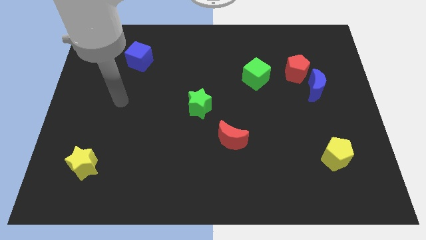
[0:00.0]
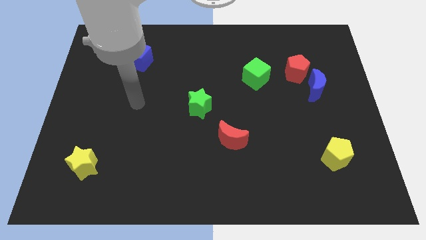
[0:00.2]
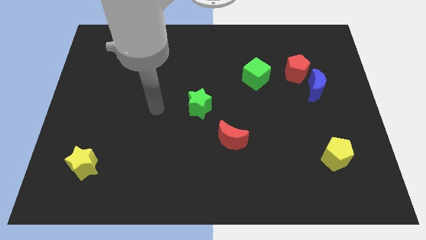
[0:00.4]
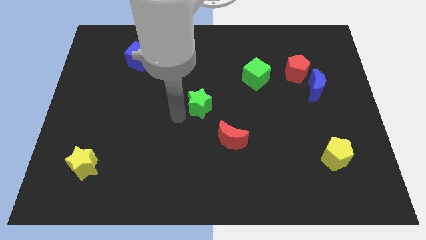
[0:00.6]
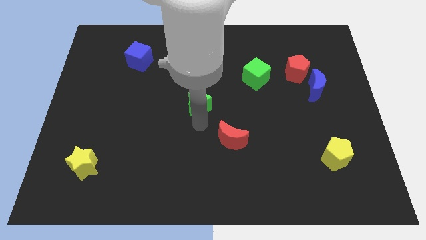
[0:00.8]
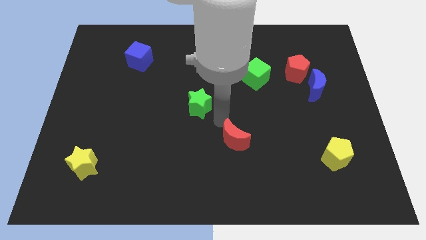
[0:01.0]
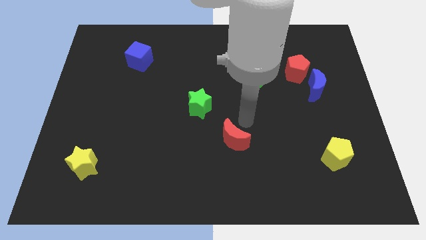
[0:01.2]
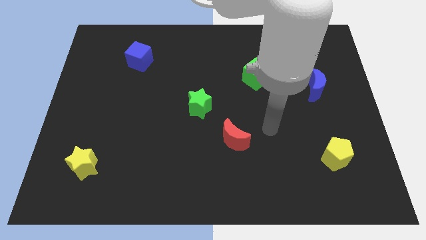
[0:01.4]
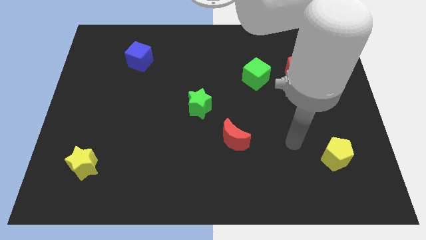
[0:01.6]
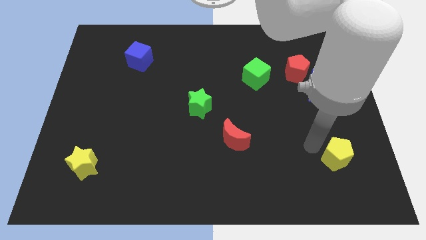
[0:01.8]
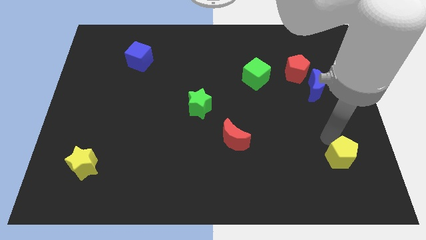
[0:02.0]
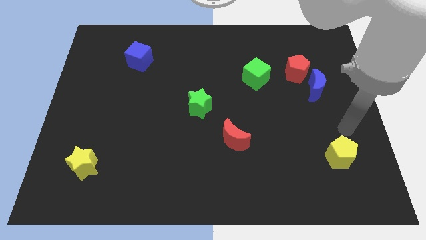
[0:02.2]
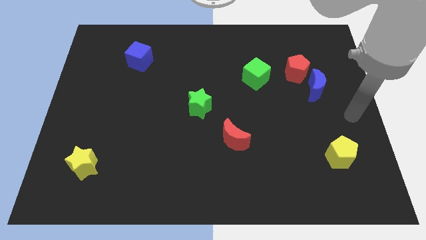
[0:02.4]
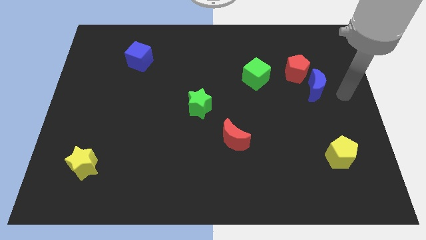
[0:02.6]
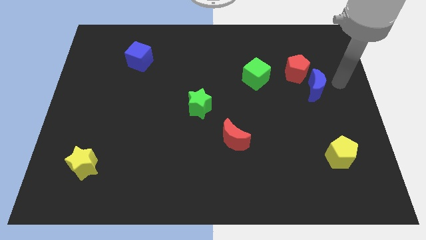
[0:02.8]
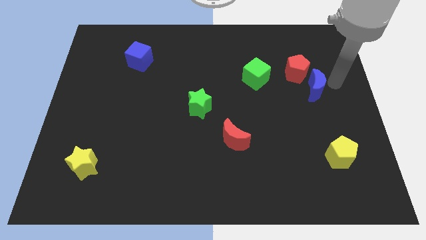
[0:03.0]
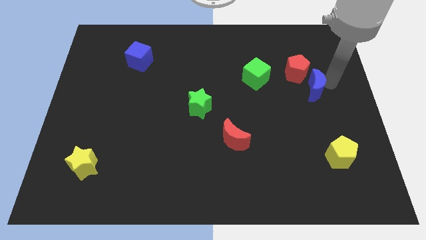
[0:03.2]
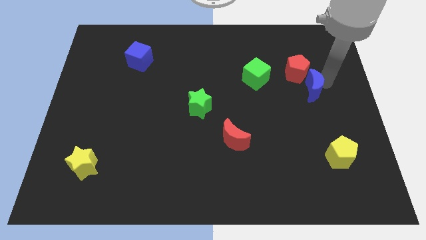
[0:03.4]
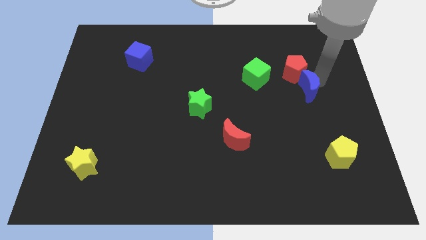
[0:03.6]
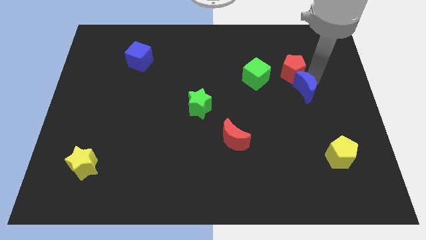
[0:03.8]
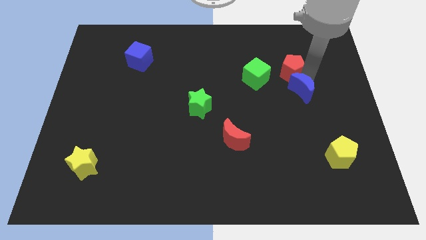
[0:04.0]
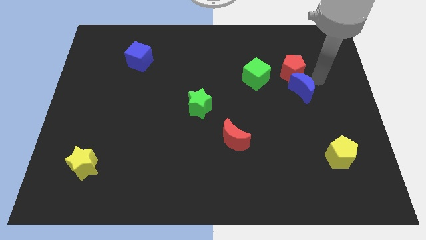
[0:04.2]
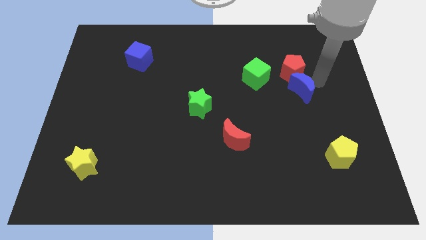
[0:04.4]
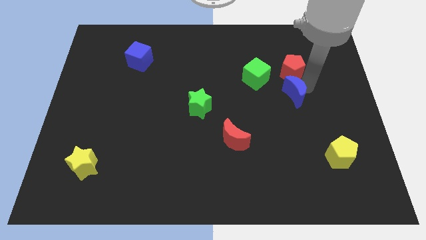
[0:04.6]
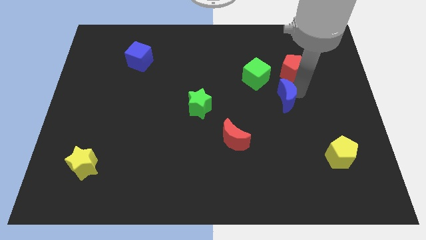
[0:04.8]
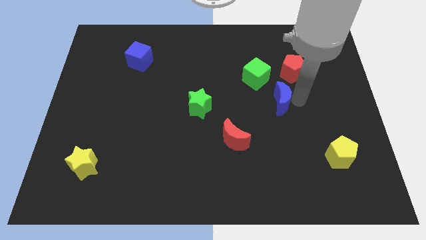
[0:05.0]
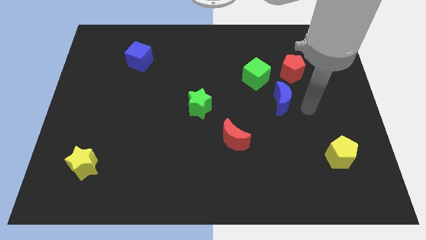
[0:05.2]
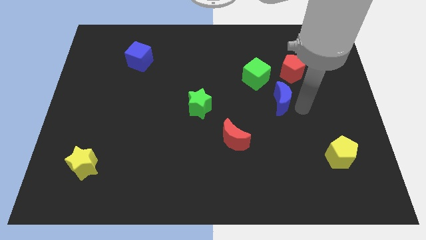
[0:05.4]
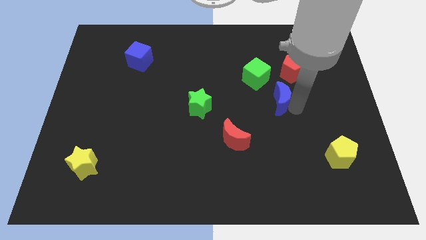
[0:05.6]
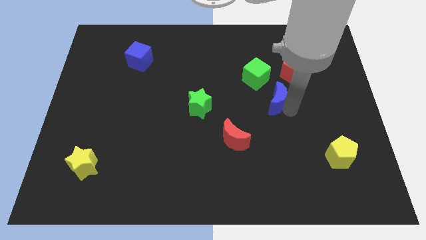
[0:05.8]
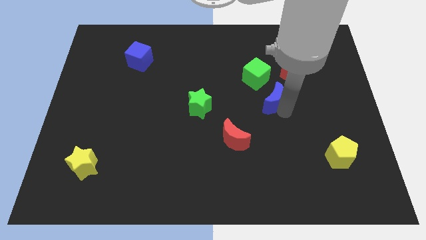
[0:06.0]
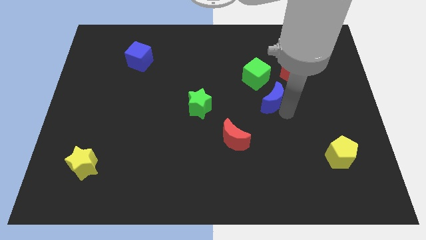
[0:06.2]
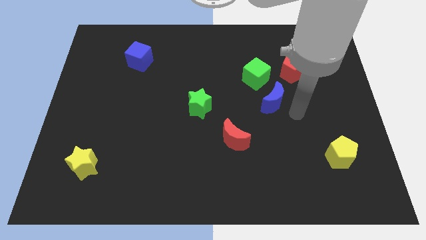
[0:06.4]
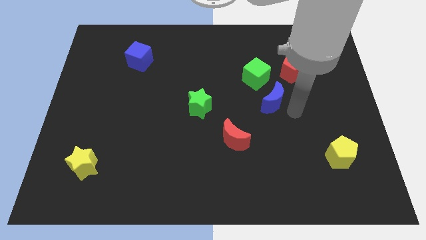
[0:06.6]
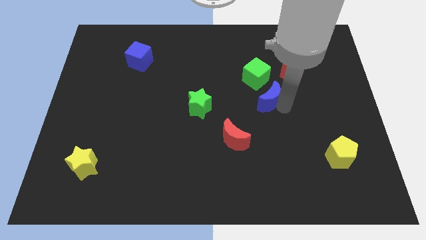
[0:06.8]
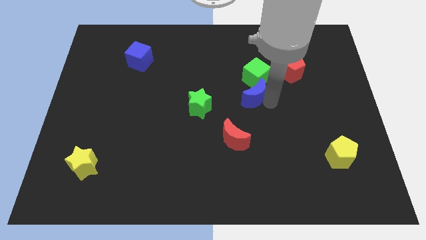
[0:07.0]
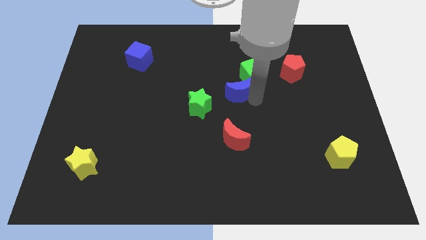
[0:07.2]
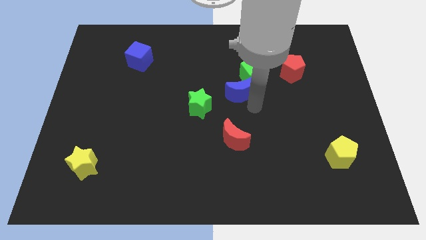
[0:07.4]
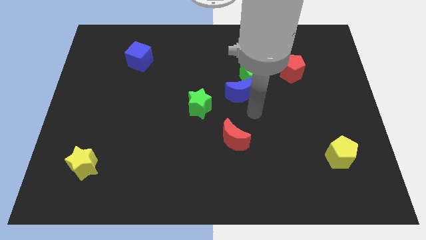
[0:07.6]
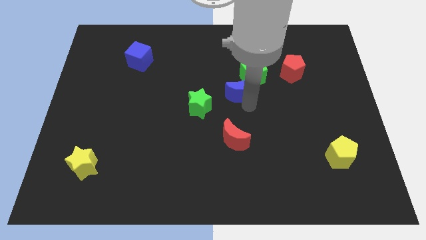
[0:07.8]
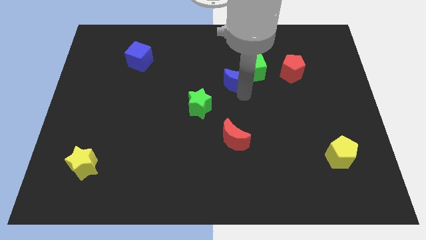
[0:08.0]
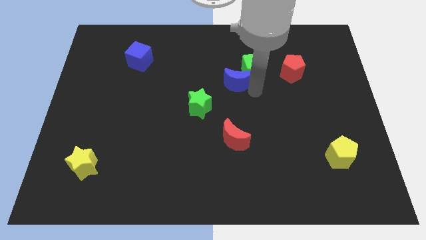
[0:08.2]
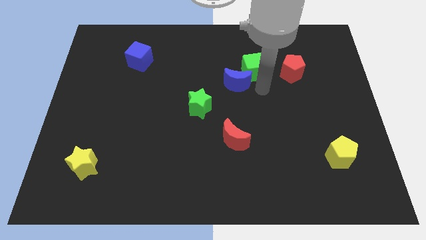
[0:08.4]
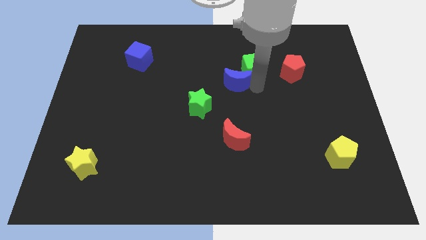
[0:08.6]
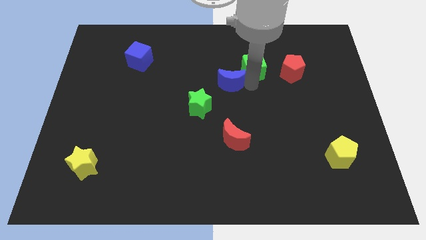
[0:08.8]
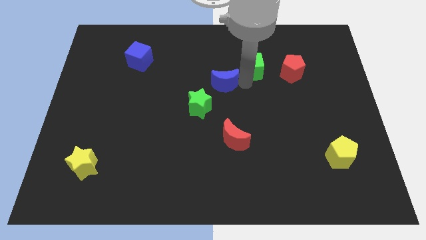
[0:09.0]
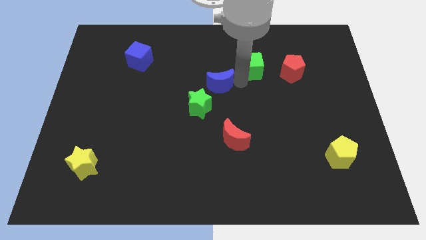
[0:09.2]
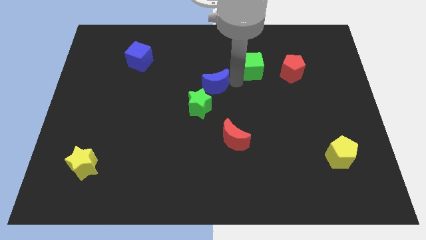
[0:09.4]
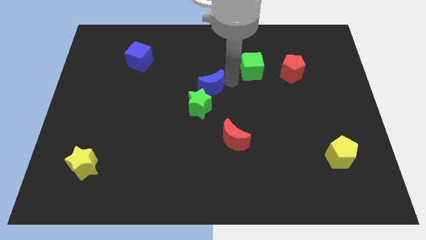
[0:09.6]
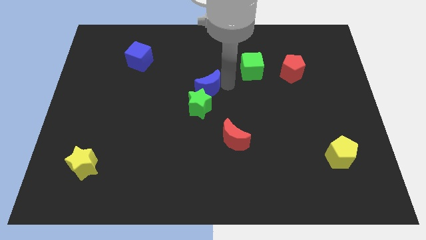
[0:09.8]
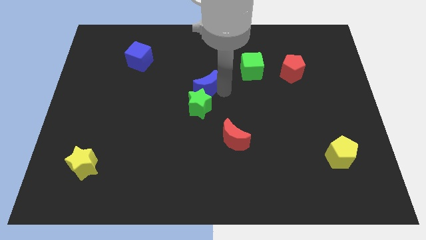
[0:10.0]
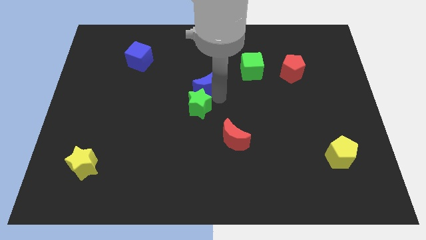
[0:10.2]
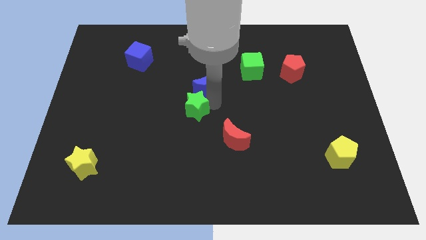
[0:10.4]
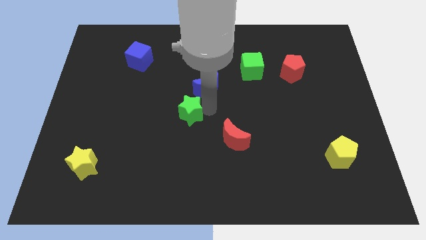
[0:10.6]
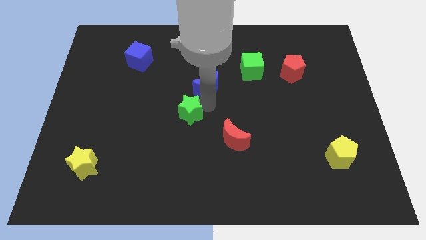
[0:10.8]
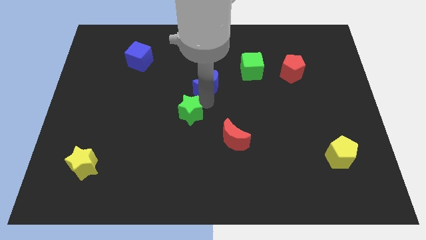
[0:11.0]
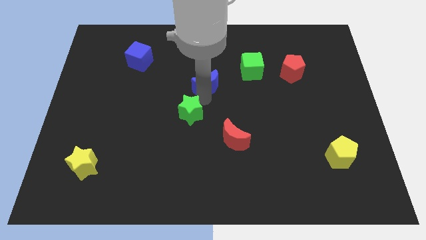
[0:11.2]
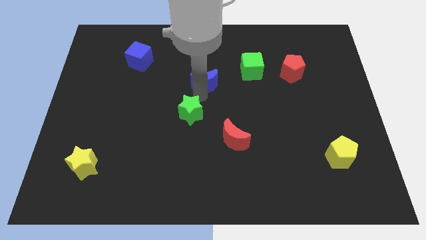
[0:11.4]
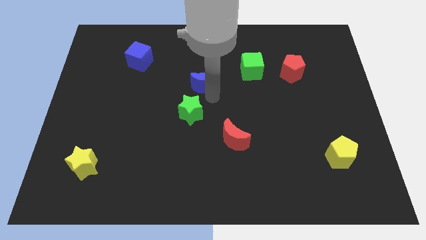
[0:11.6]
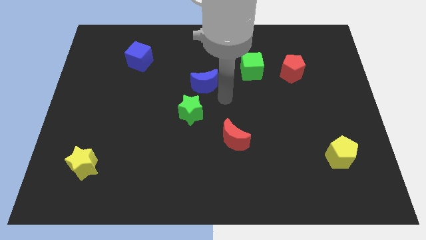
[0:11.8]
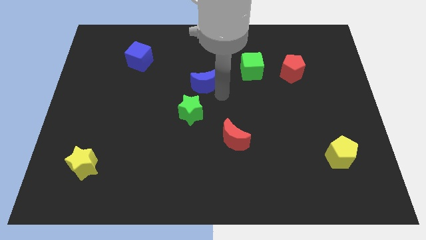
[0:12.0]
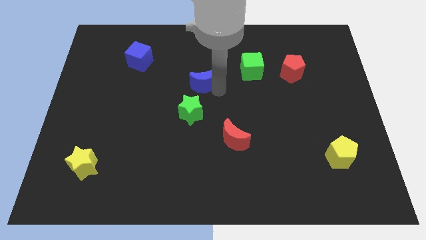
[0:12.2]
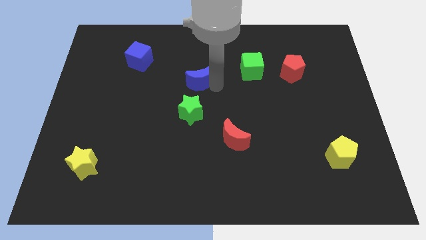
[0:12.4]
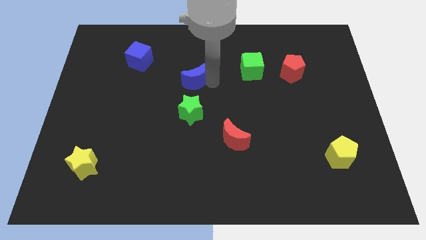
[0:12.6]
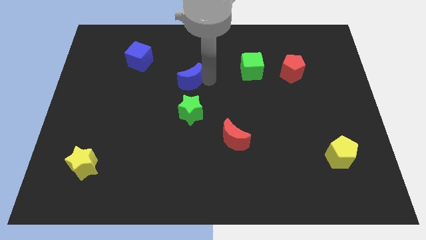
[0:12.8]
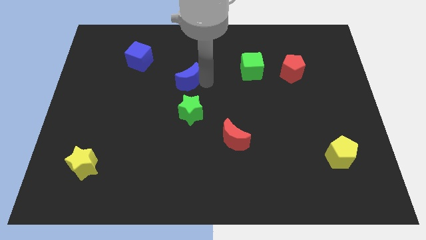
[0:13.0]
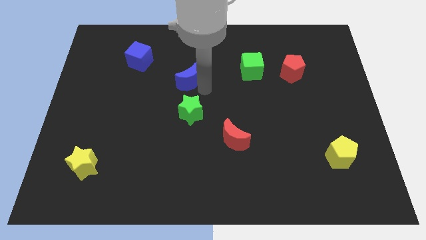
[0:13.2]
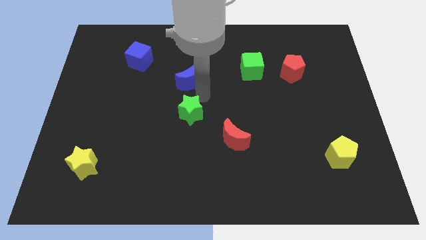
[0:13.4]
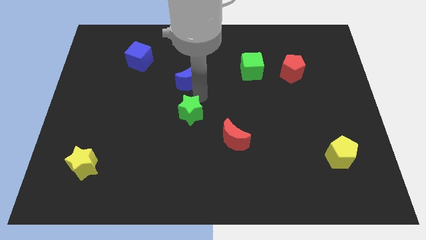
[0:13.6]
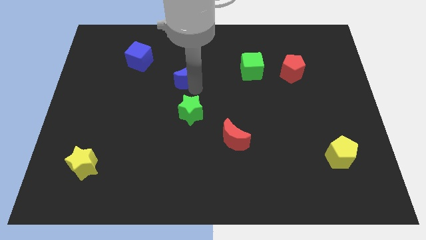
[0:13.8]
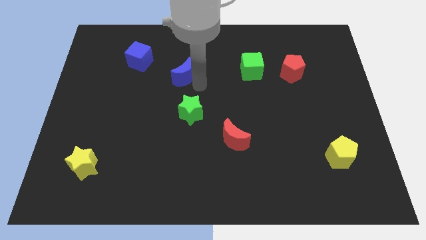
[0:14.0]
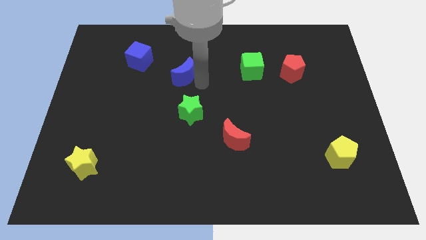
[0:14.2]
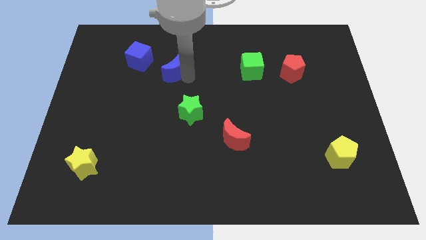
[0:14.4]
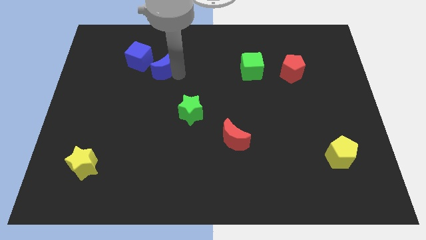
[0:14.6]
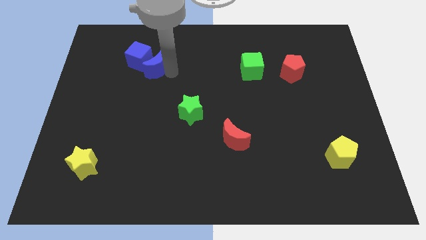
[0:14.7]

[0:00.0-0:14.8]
push the blue moon towards the blue cube

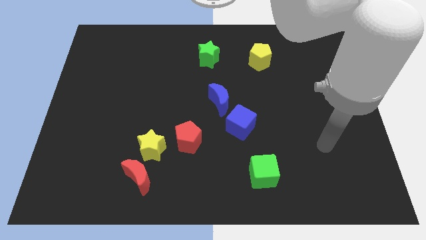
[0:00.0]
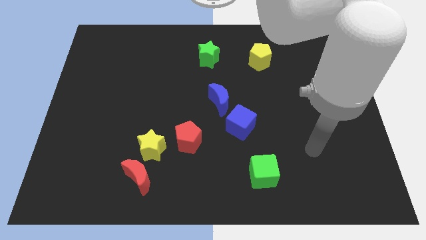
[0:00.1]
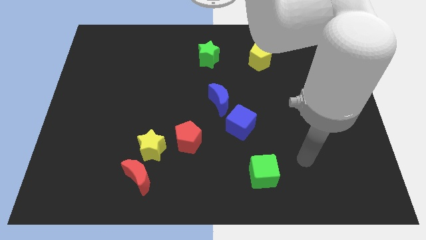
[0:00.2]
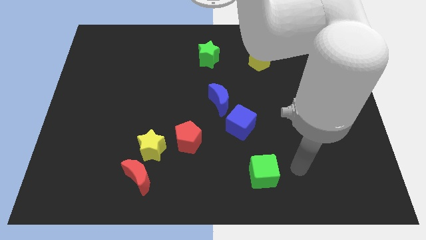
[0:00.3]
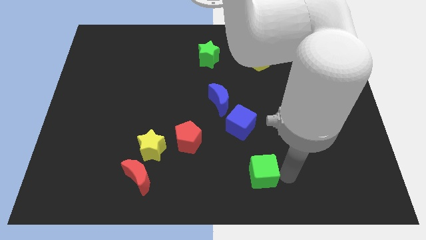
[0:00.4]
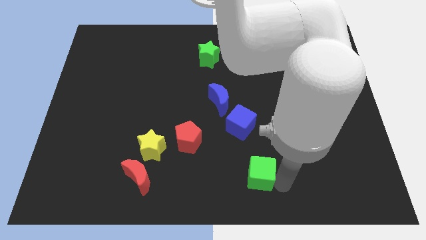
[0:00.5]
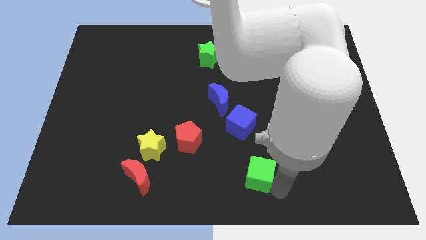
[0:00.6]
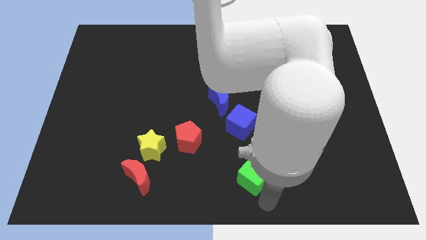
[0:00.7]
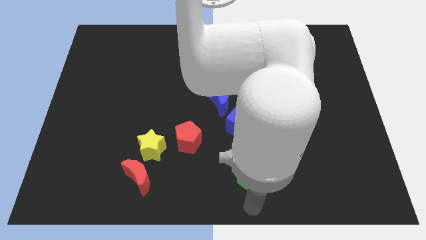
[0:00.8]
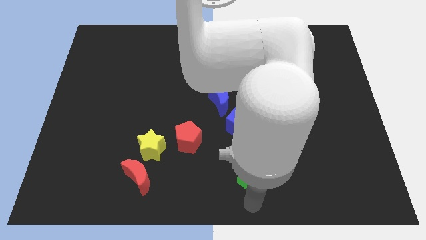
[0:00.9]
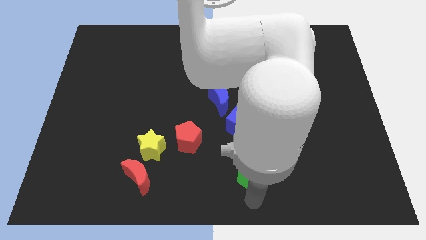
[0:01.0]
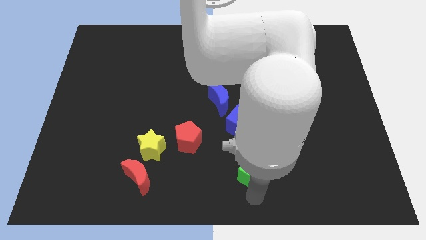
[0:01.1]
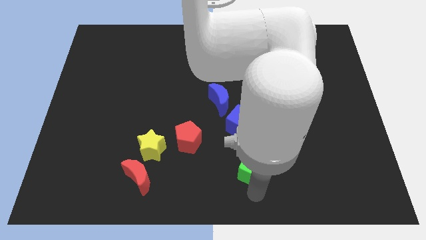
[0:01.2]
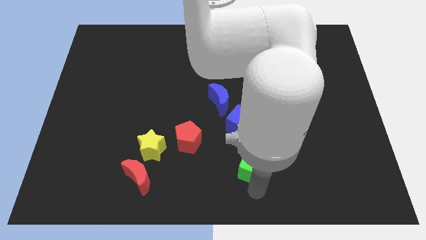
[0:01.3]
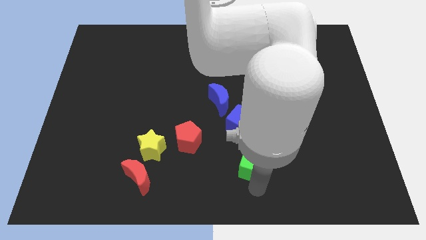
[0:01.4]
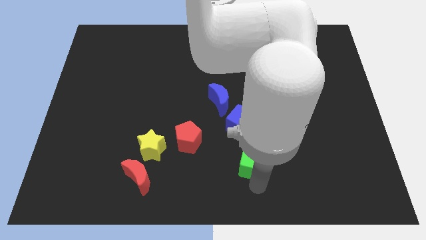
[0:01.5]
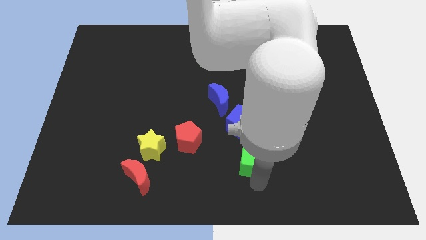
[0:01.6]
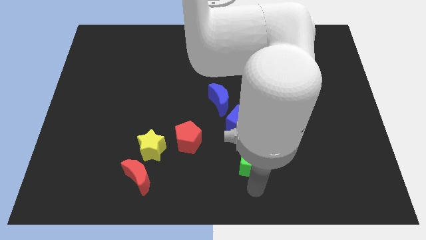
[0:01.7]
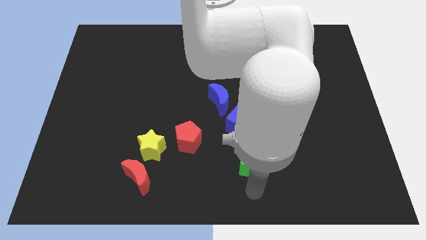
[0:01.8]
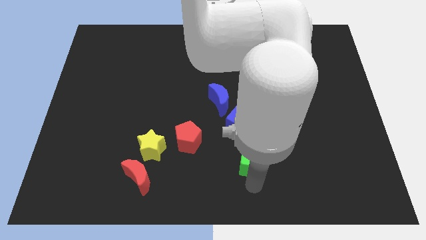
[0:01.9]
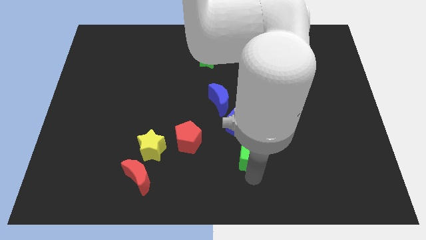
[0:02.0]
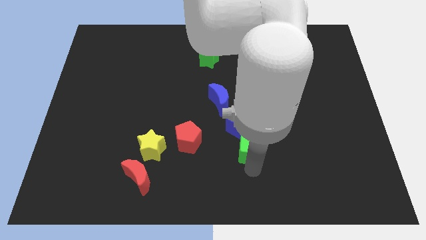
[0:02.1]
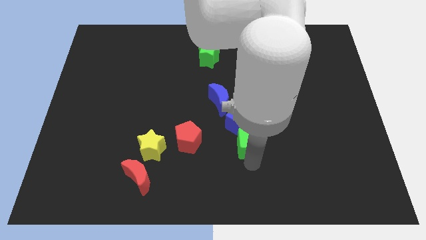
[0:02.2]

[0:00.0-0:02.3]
push the green cube next to the blue cube
